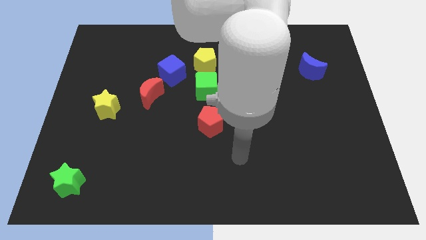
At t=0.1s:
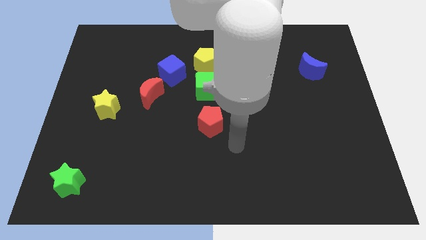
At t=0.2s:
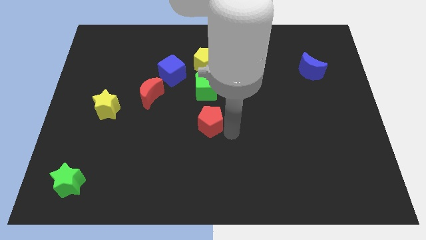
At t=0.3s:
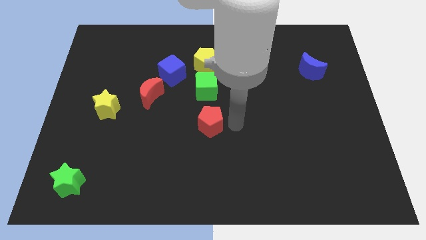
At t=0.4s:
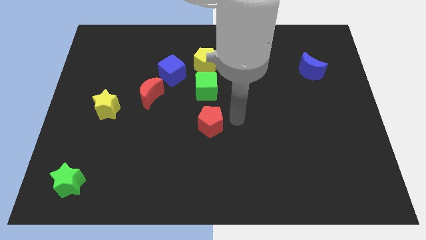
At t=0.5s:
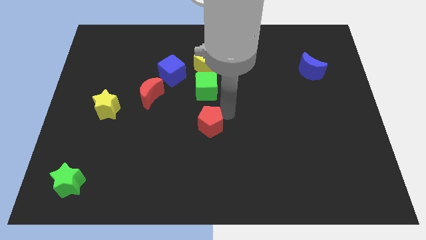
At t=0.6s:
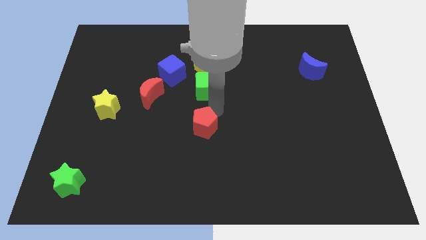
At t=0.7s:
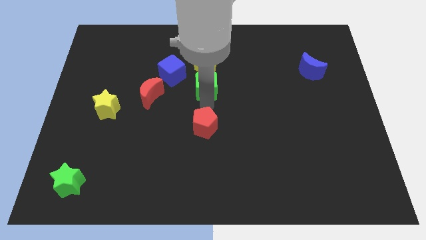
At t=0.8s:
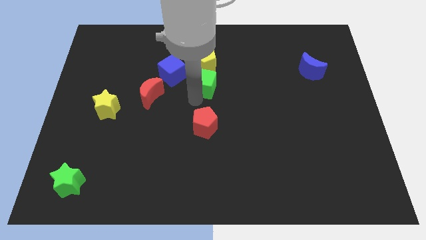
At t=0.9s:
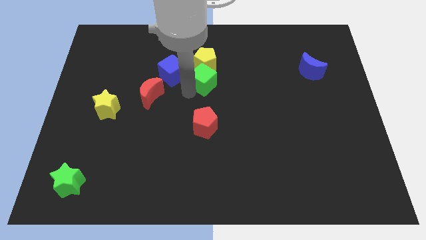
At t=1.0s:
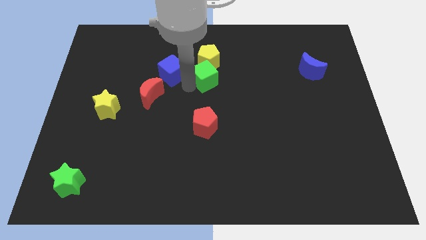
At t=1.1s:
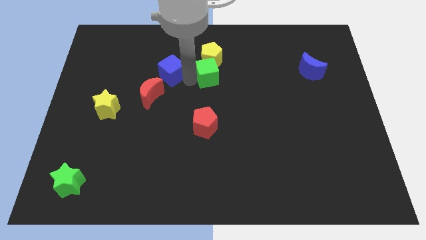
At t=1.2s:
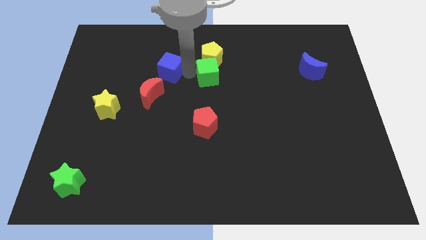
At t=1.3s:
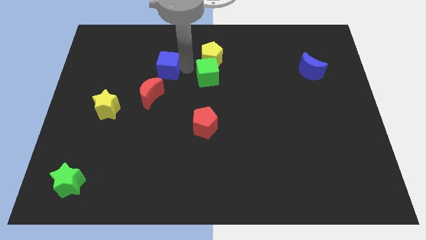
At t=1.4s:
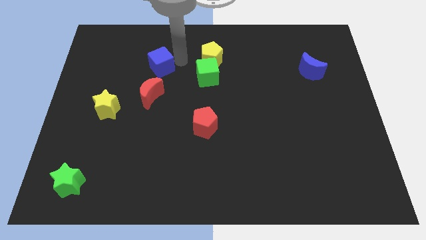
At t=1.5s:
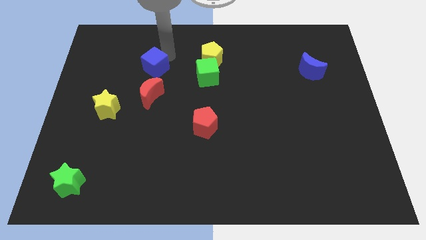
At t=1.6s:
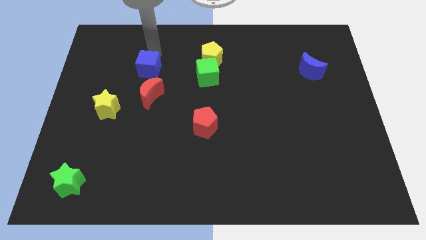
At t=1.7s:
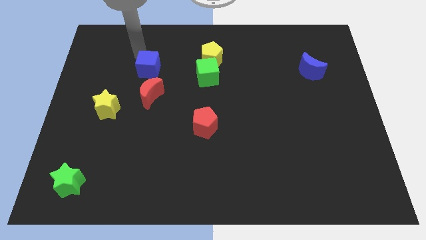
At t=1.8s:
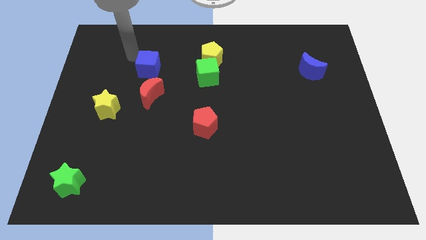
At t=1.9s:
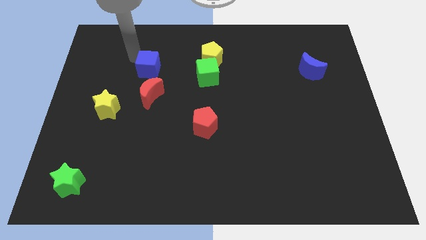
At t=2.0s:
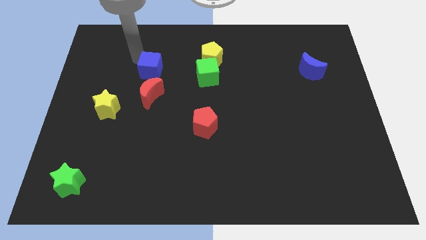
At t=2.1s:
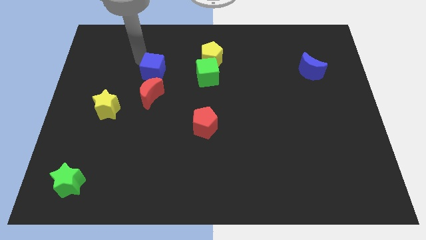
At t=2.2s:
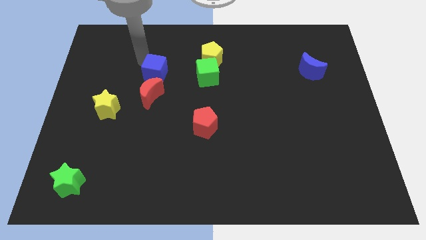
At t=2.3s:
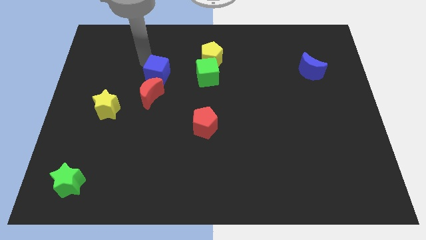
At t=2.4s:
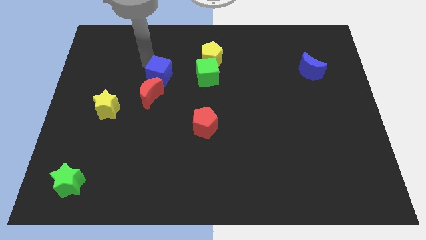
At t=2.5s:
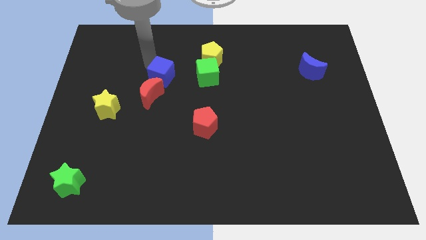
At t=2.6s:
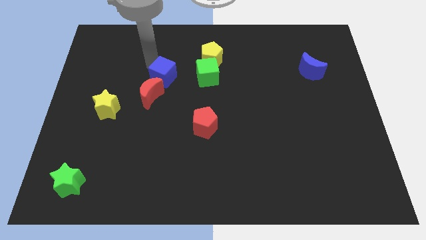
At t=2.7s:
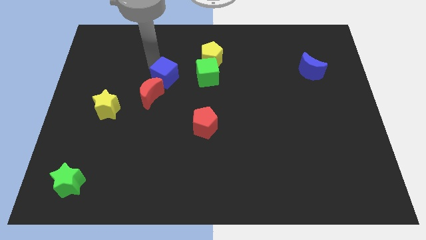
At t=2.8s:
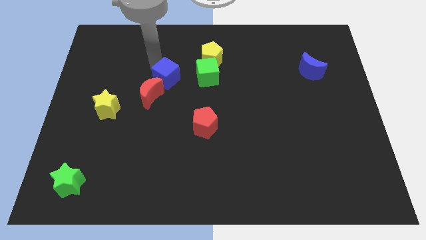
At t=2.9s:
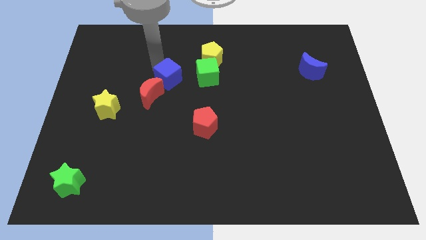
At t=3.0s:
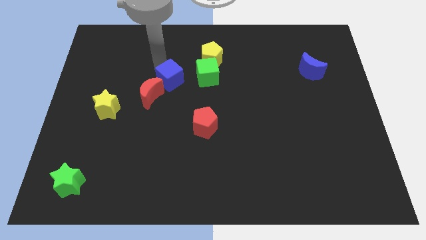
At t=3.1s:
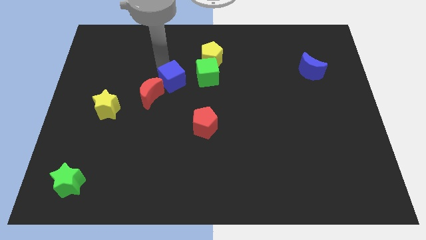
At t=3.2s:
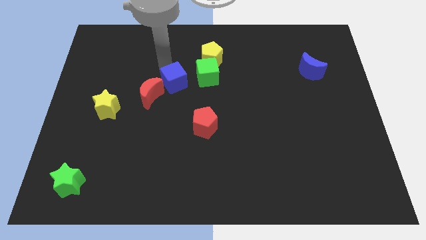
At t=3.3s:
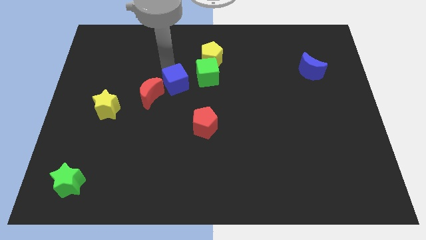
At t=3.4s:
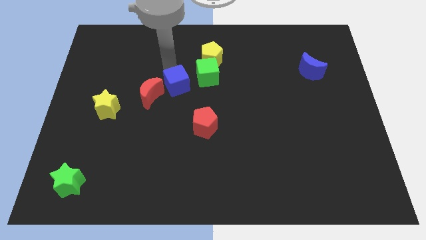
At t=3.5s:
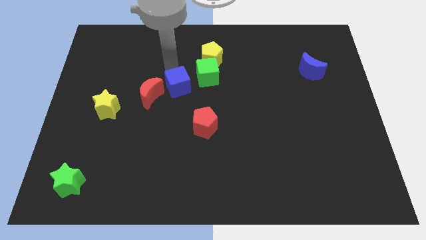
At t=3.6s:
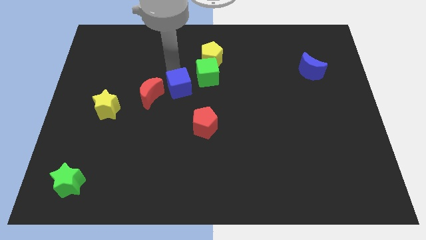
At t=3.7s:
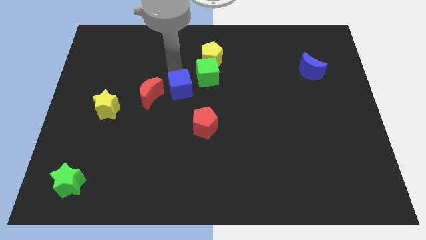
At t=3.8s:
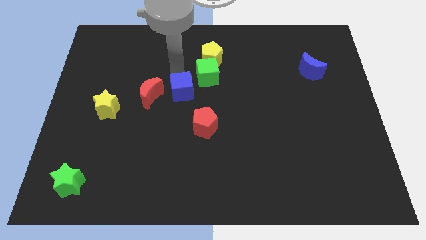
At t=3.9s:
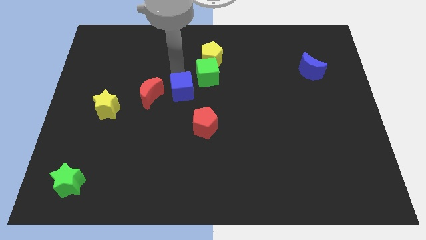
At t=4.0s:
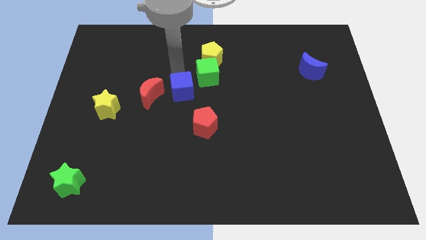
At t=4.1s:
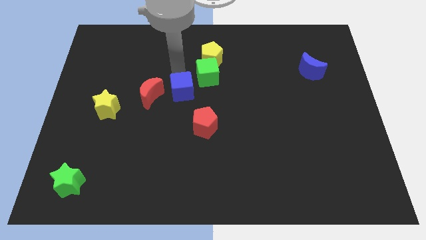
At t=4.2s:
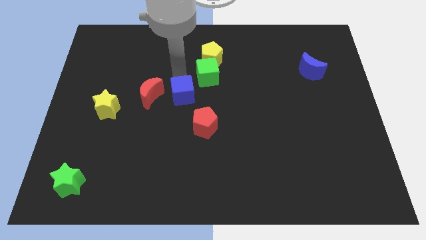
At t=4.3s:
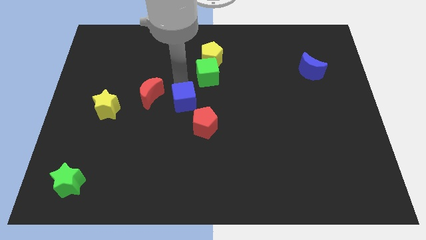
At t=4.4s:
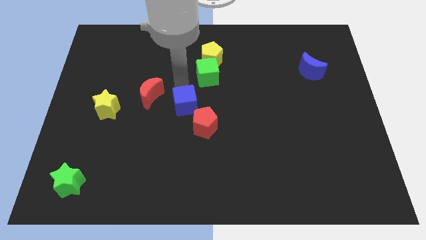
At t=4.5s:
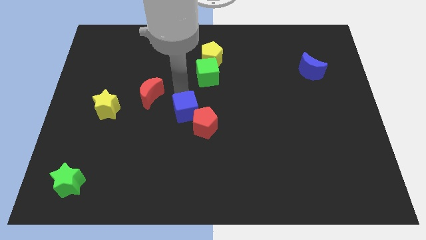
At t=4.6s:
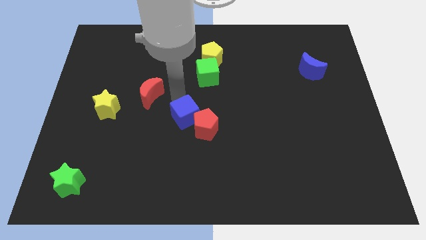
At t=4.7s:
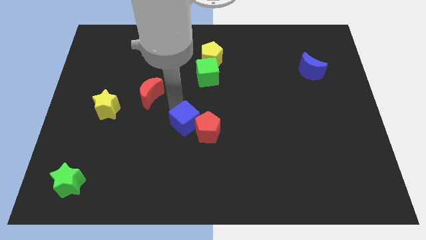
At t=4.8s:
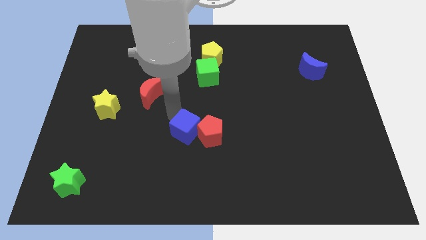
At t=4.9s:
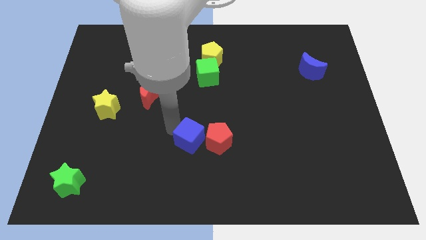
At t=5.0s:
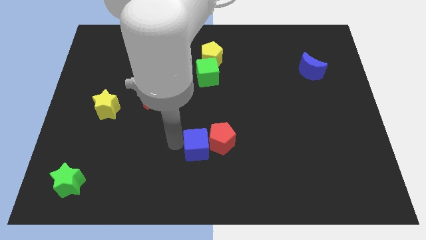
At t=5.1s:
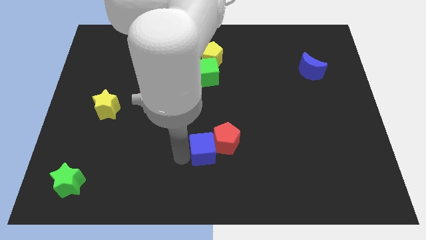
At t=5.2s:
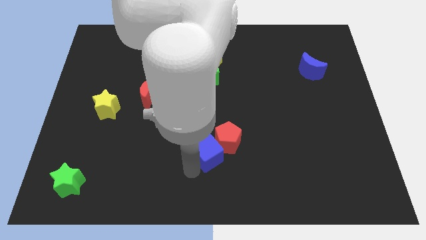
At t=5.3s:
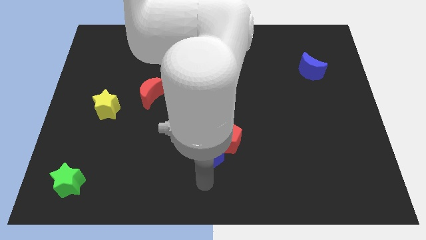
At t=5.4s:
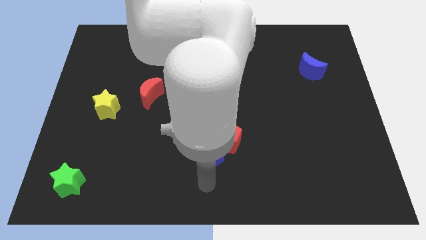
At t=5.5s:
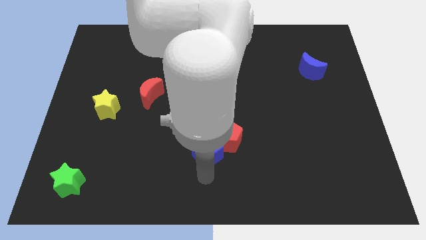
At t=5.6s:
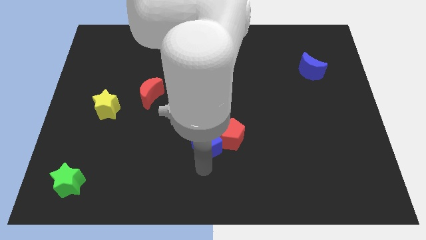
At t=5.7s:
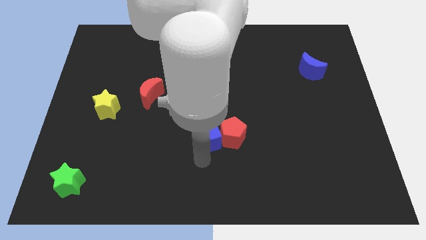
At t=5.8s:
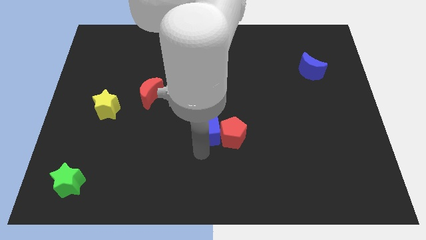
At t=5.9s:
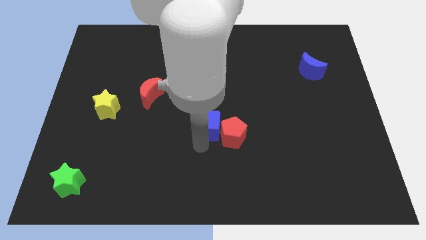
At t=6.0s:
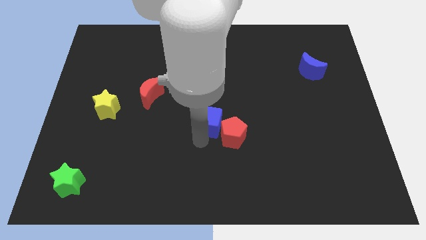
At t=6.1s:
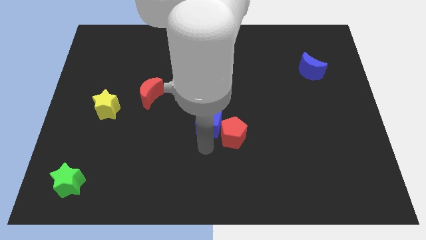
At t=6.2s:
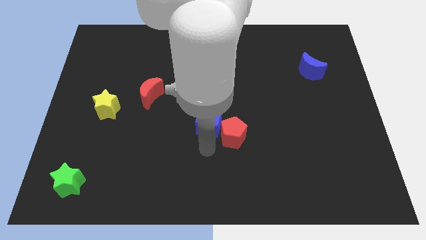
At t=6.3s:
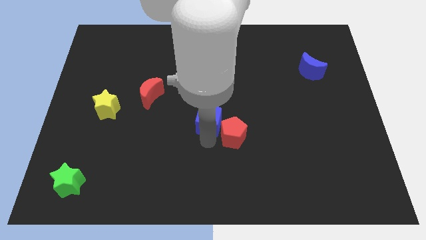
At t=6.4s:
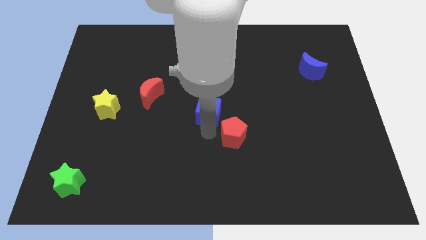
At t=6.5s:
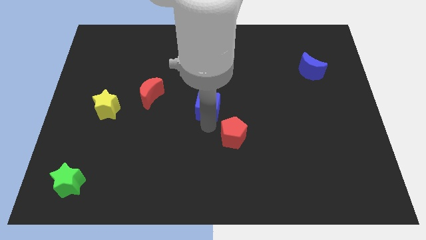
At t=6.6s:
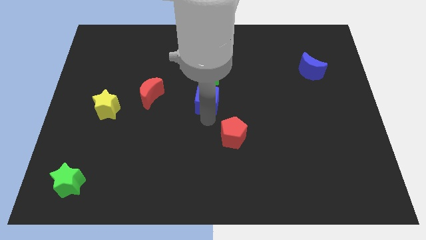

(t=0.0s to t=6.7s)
put the blue cube to the bottom of the yellow pentagon

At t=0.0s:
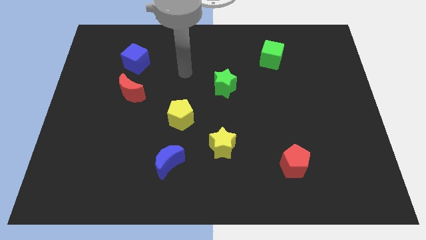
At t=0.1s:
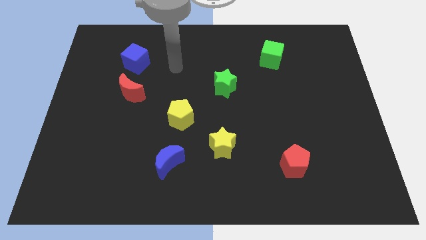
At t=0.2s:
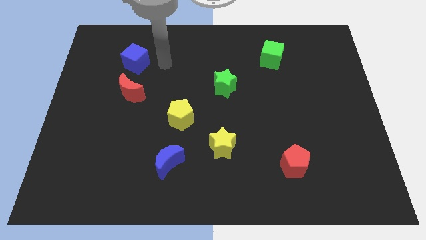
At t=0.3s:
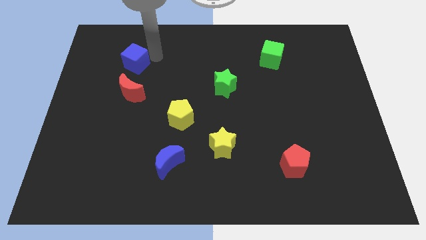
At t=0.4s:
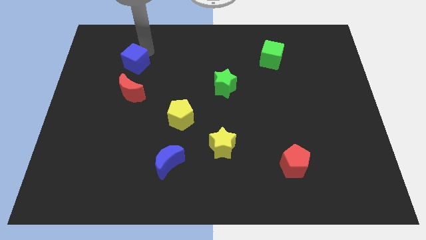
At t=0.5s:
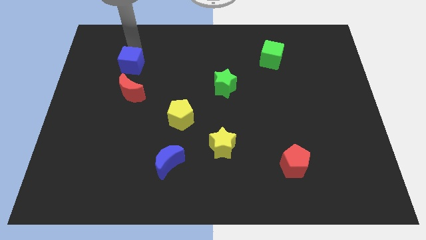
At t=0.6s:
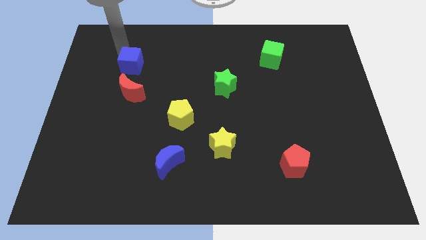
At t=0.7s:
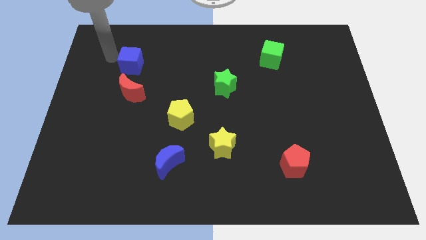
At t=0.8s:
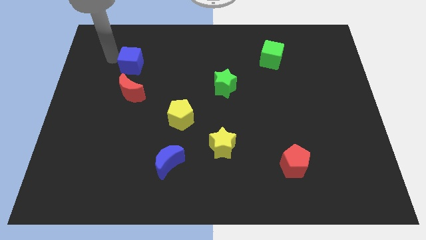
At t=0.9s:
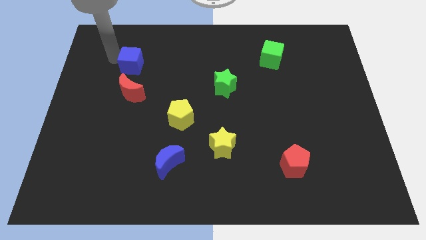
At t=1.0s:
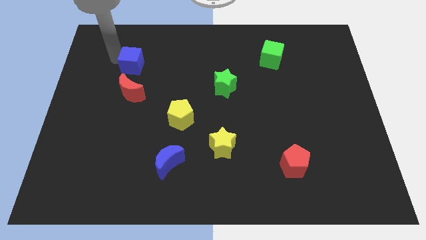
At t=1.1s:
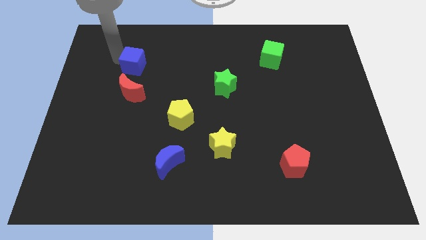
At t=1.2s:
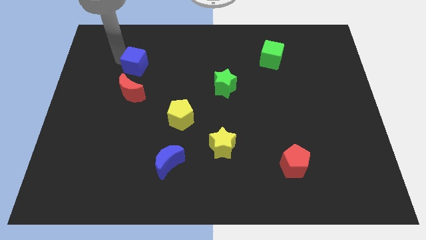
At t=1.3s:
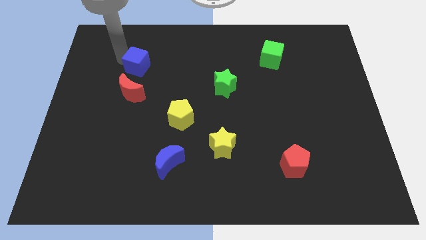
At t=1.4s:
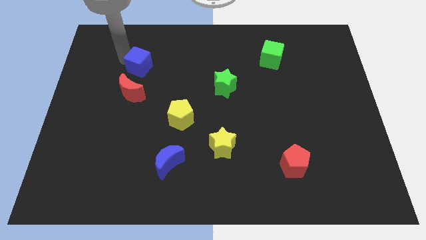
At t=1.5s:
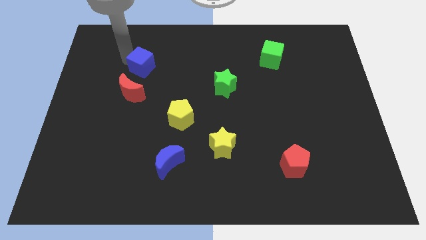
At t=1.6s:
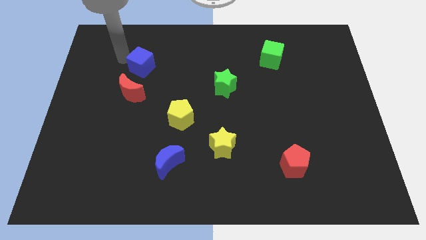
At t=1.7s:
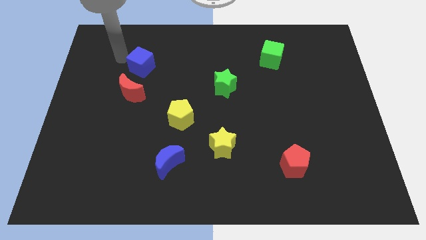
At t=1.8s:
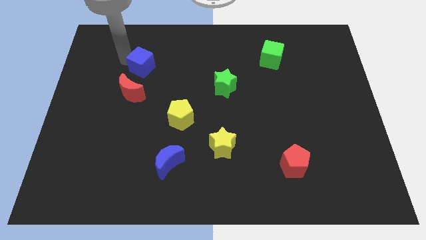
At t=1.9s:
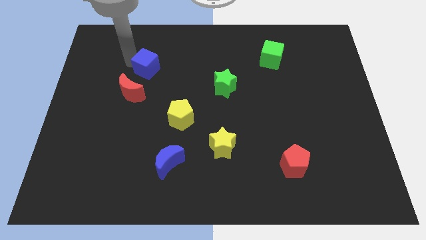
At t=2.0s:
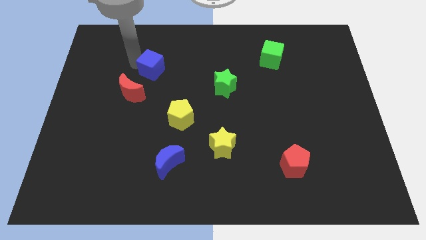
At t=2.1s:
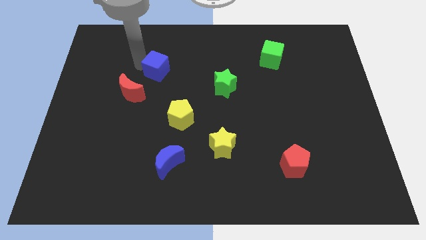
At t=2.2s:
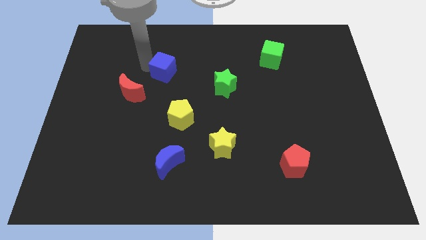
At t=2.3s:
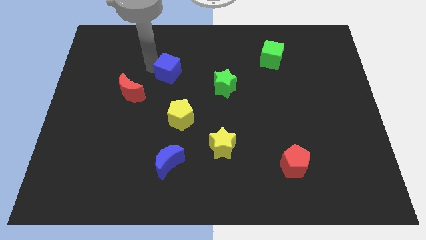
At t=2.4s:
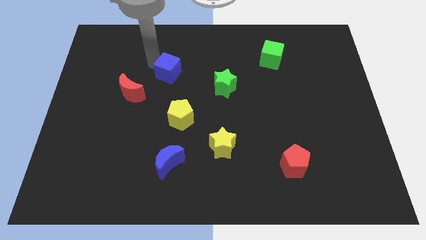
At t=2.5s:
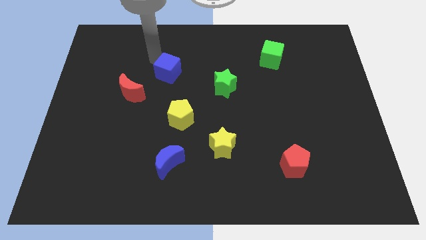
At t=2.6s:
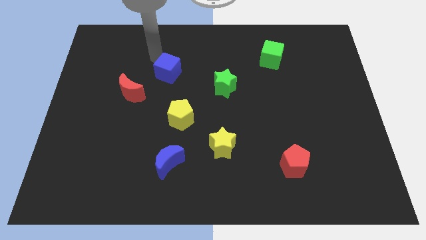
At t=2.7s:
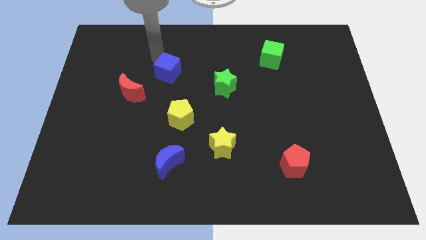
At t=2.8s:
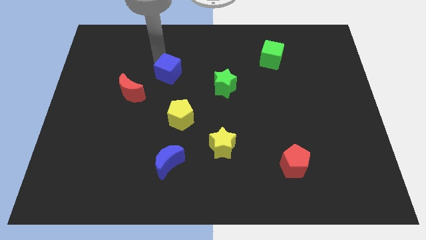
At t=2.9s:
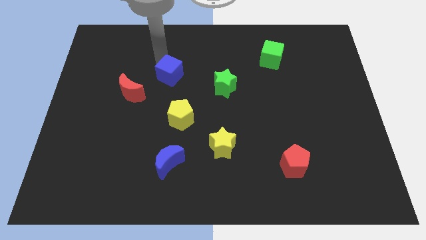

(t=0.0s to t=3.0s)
push the blue cube left of the green star
